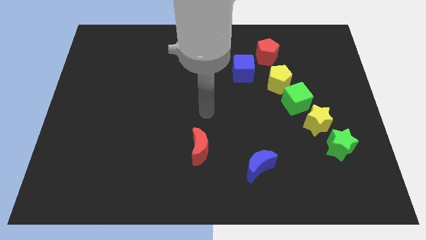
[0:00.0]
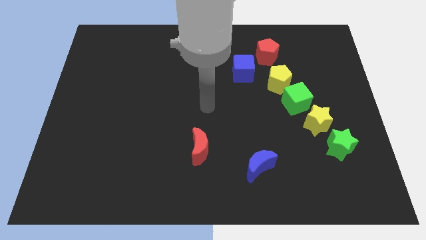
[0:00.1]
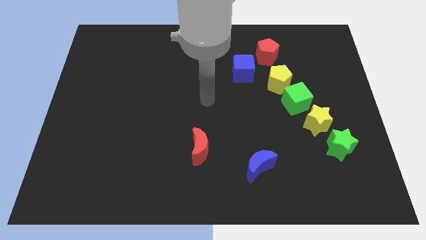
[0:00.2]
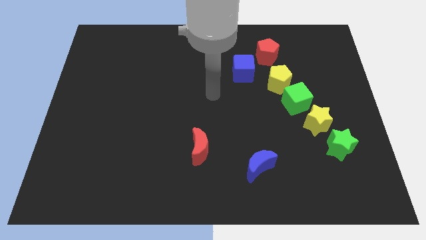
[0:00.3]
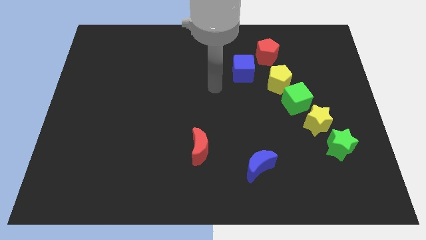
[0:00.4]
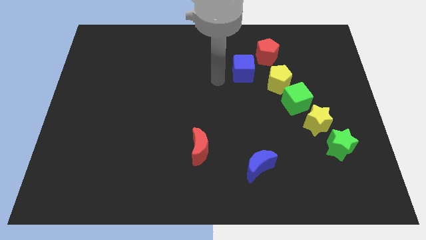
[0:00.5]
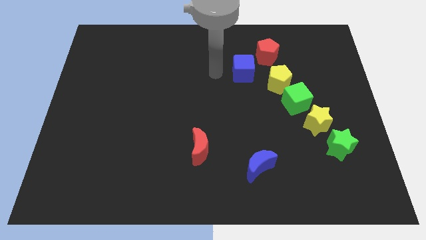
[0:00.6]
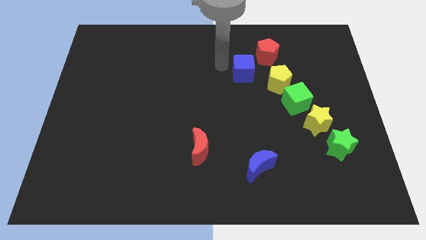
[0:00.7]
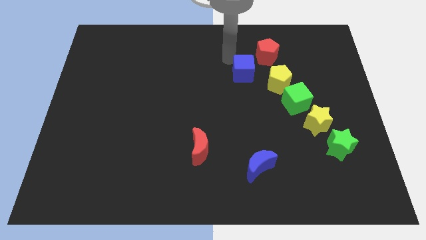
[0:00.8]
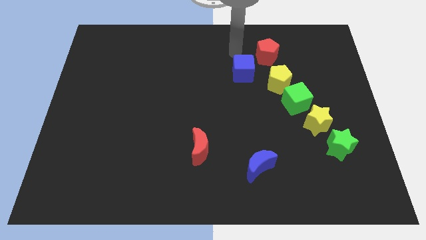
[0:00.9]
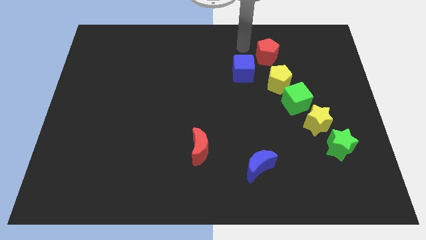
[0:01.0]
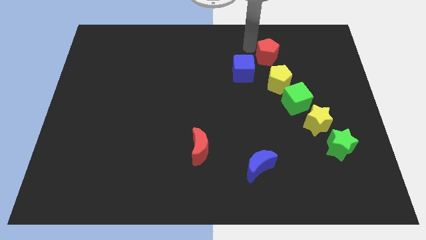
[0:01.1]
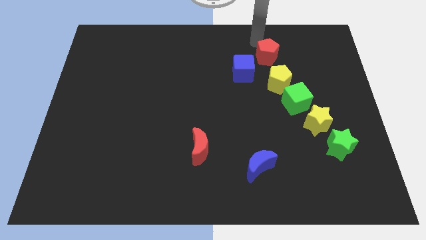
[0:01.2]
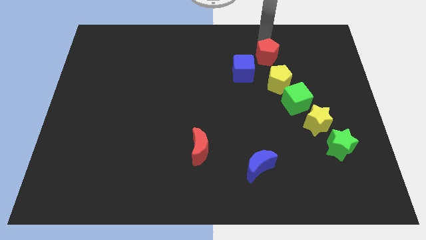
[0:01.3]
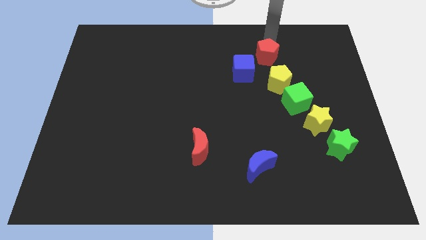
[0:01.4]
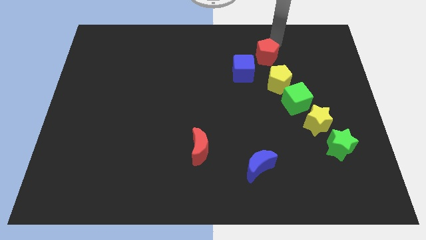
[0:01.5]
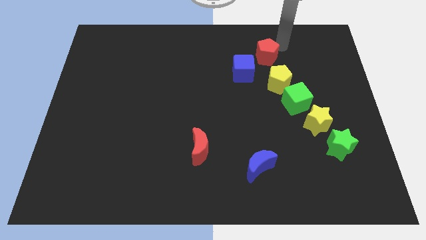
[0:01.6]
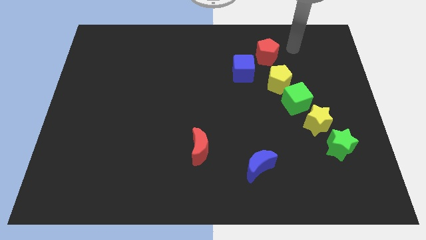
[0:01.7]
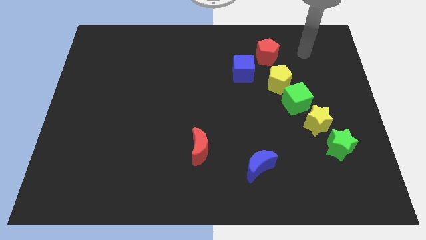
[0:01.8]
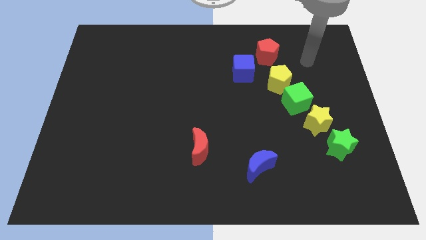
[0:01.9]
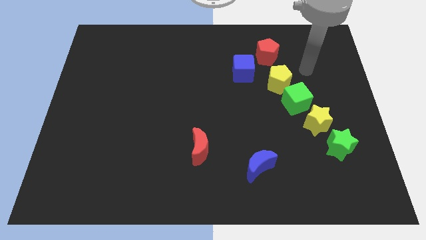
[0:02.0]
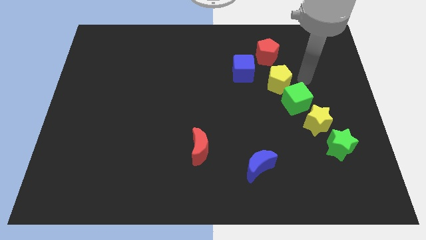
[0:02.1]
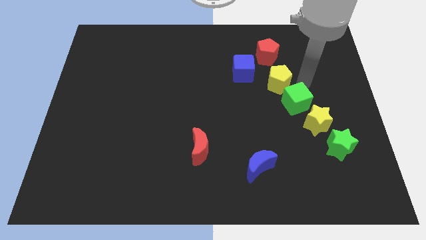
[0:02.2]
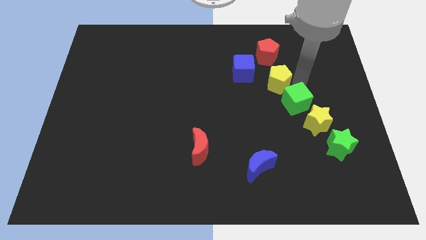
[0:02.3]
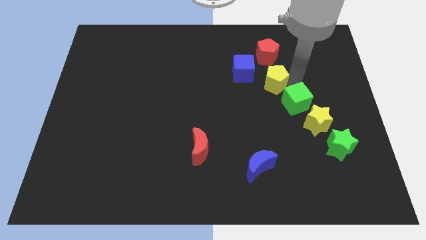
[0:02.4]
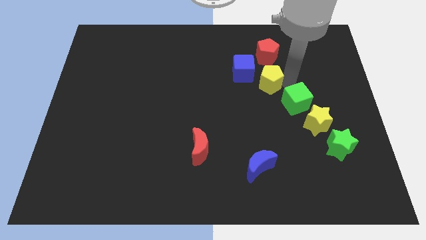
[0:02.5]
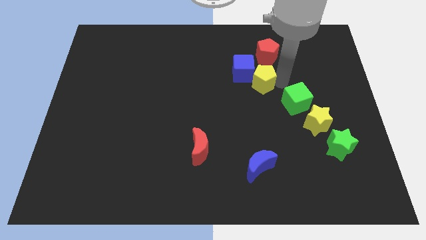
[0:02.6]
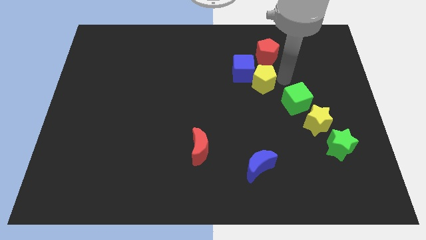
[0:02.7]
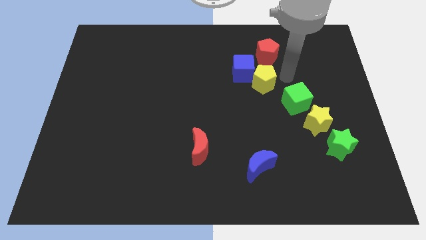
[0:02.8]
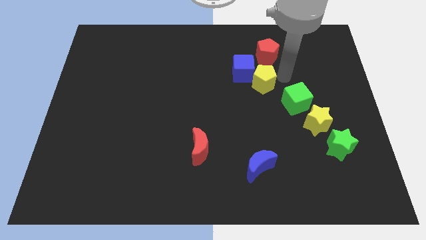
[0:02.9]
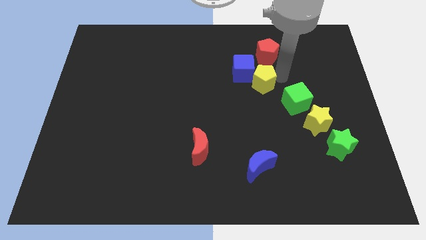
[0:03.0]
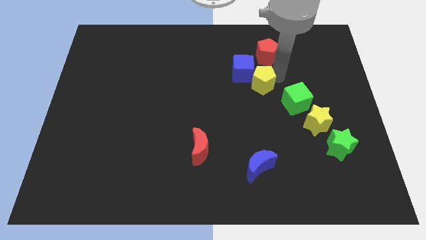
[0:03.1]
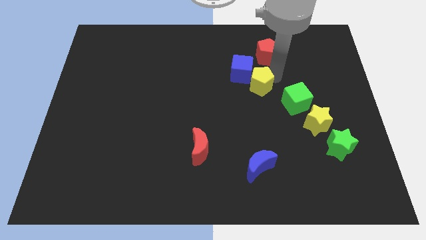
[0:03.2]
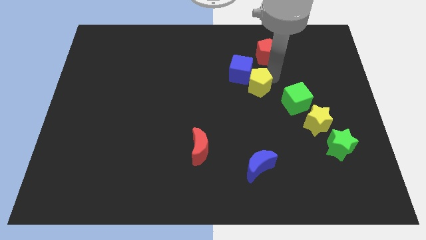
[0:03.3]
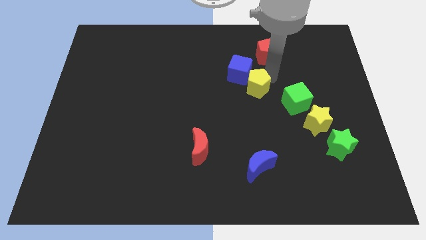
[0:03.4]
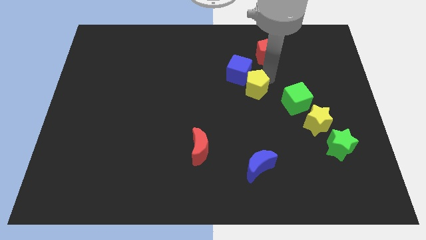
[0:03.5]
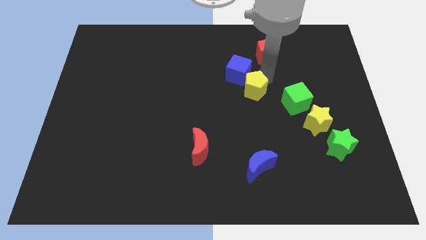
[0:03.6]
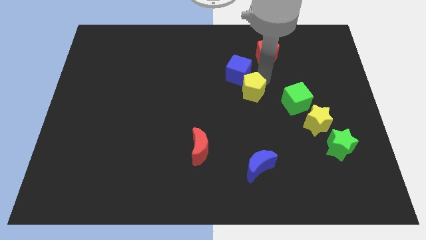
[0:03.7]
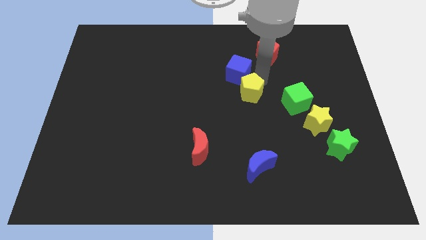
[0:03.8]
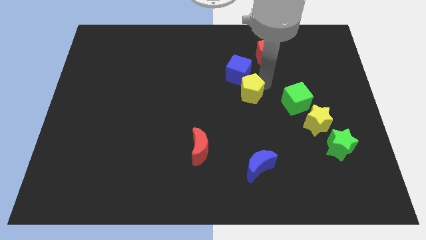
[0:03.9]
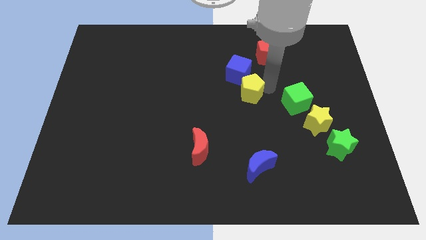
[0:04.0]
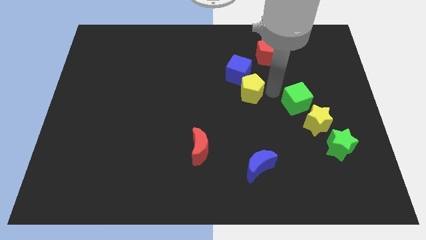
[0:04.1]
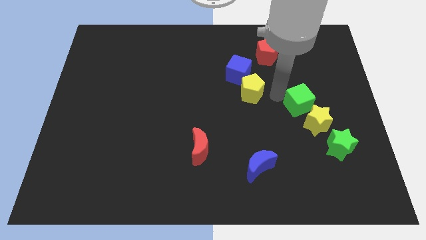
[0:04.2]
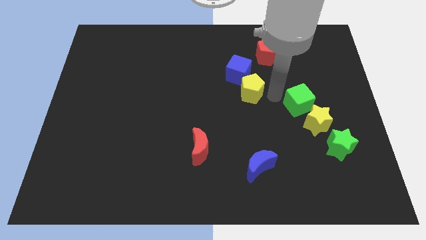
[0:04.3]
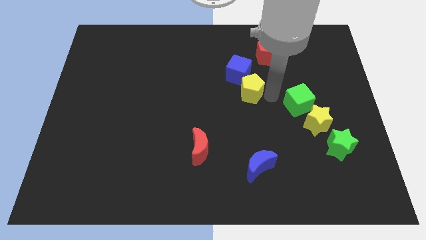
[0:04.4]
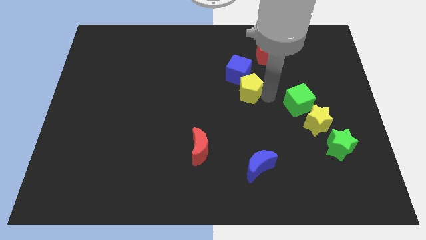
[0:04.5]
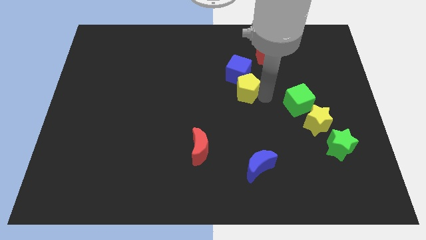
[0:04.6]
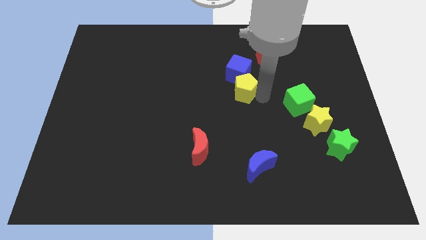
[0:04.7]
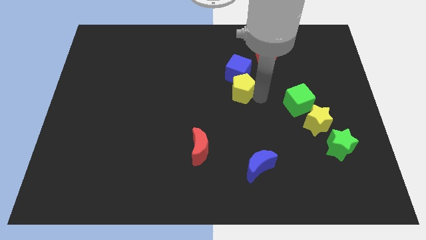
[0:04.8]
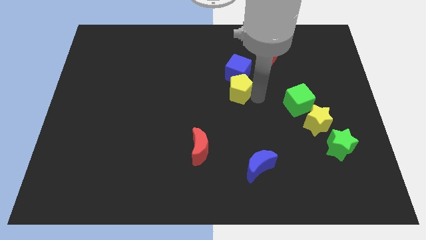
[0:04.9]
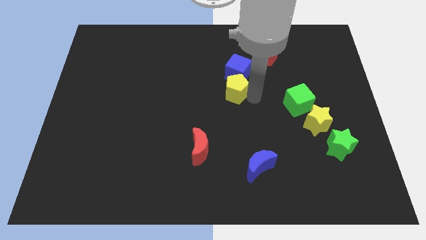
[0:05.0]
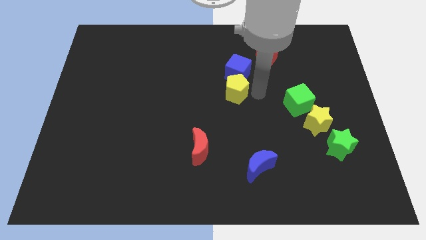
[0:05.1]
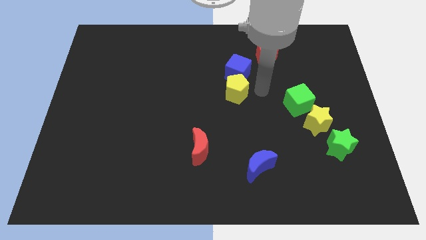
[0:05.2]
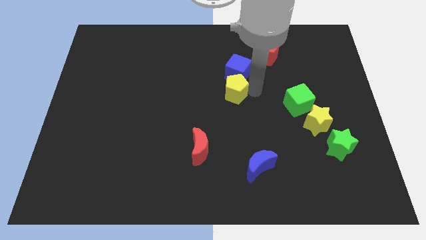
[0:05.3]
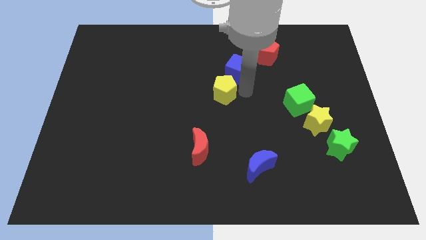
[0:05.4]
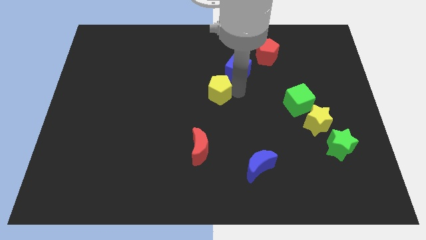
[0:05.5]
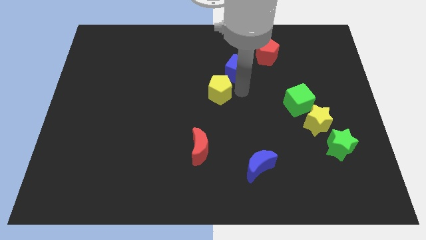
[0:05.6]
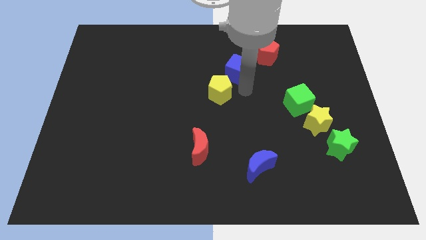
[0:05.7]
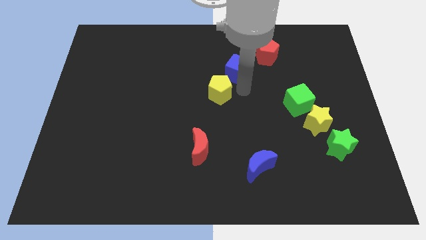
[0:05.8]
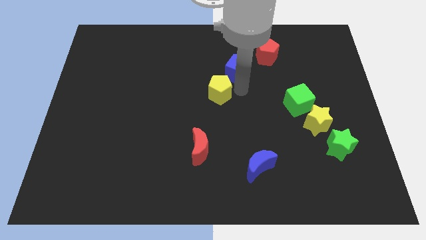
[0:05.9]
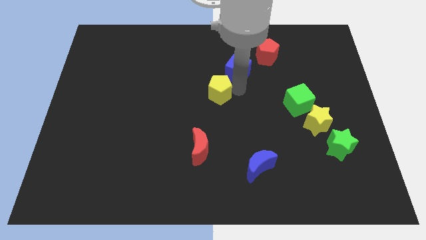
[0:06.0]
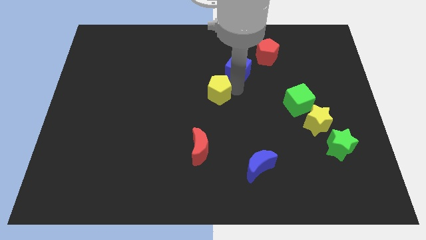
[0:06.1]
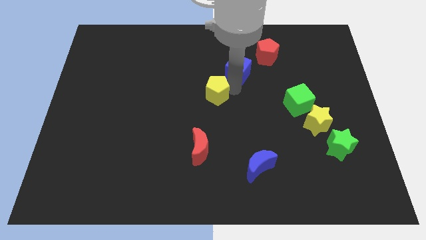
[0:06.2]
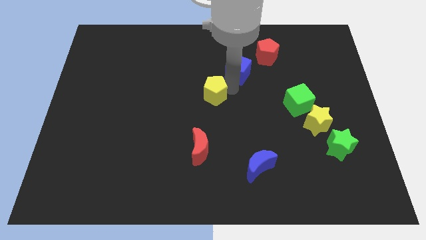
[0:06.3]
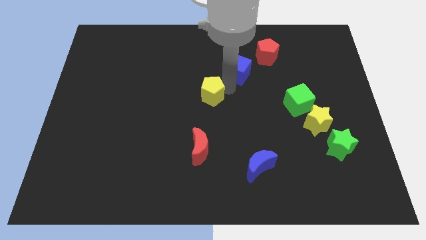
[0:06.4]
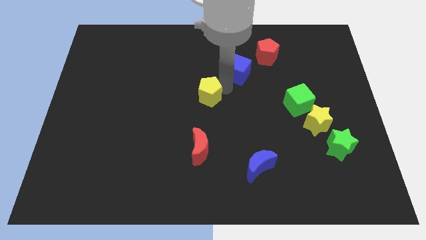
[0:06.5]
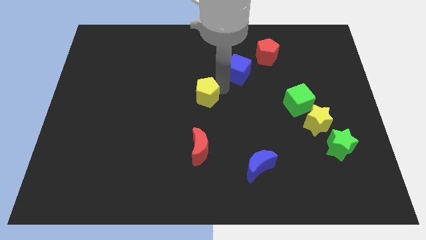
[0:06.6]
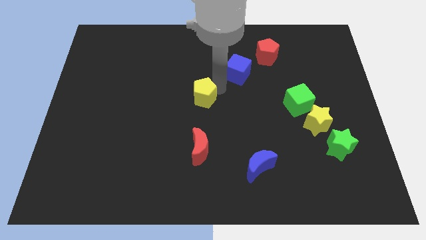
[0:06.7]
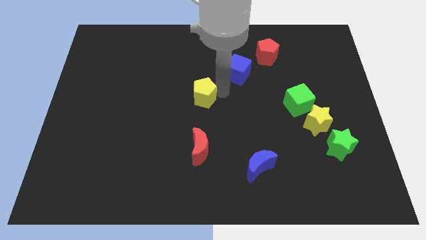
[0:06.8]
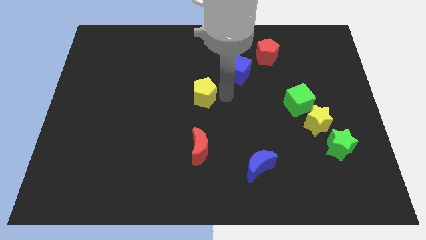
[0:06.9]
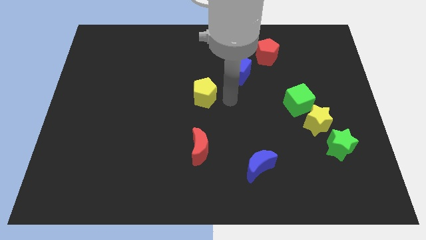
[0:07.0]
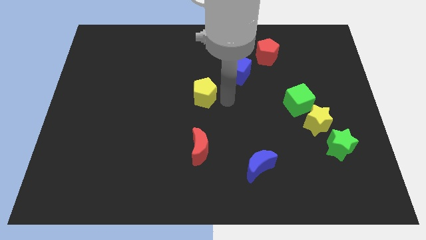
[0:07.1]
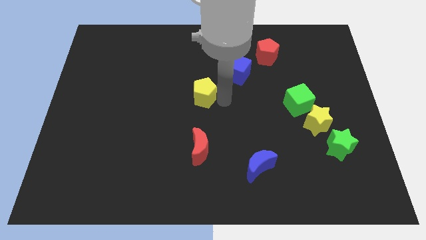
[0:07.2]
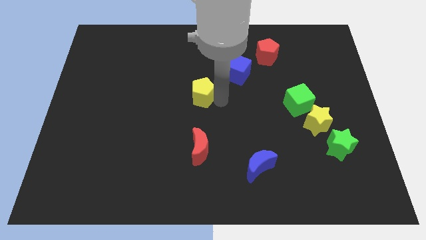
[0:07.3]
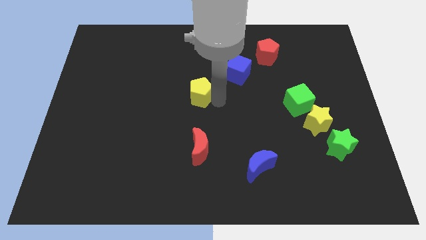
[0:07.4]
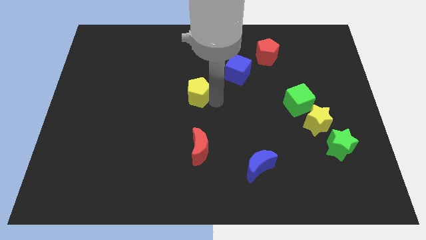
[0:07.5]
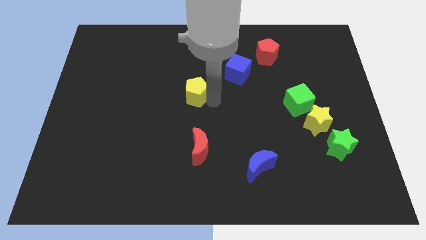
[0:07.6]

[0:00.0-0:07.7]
push the yellow pentagon to the left

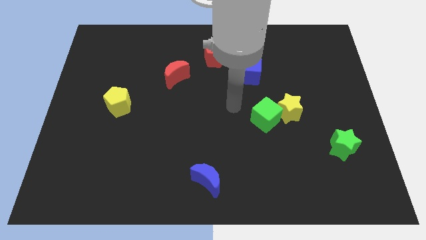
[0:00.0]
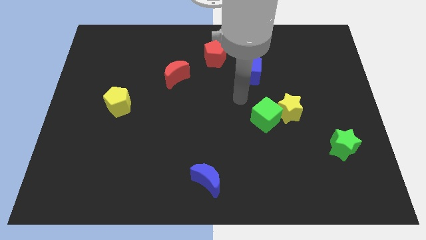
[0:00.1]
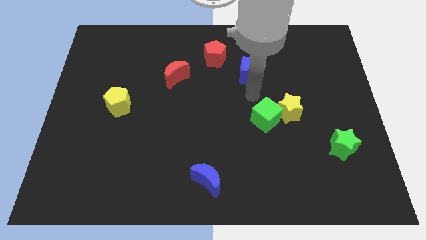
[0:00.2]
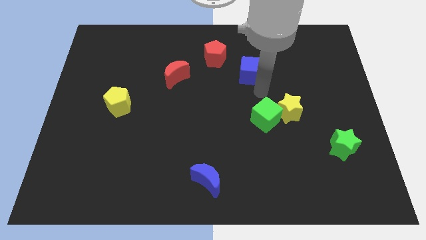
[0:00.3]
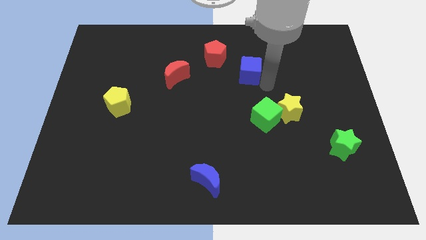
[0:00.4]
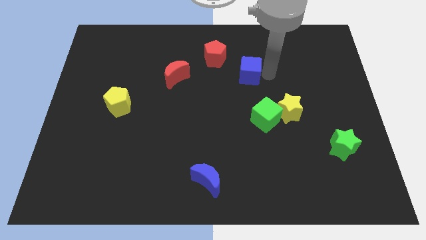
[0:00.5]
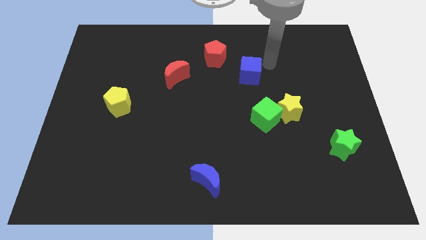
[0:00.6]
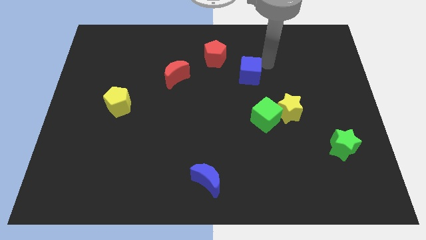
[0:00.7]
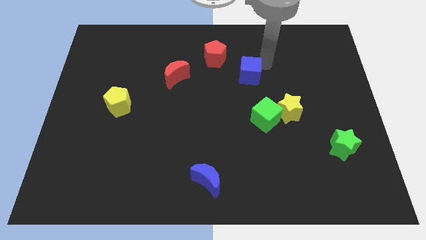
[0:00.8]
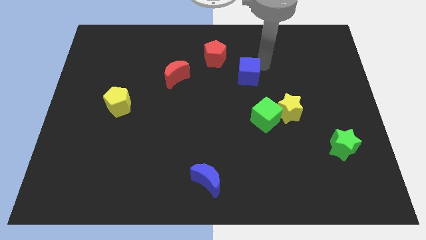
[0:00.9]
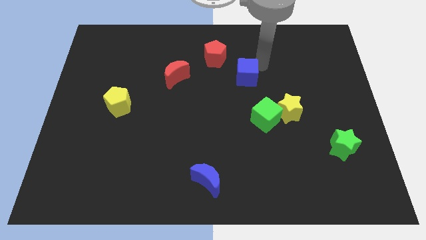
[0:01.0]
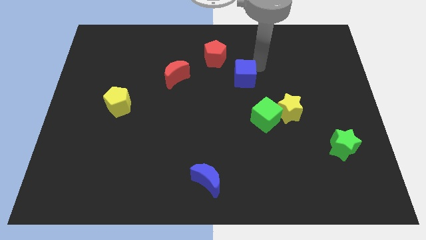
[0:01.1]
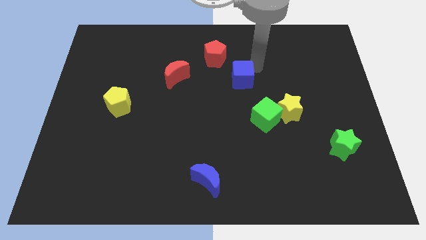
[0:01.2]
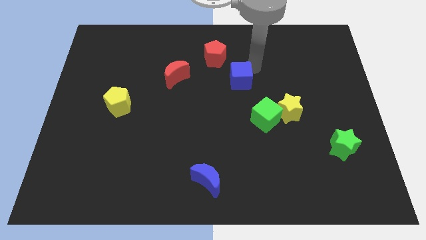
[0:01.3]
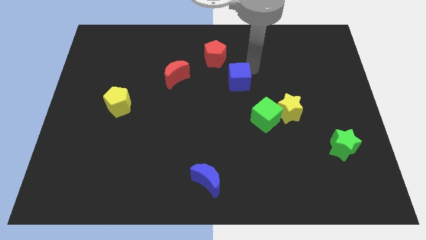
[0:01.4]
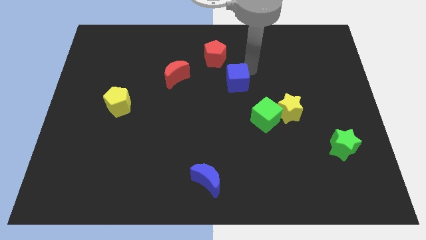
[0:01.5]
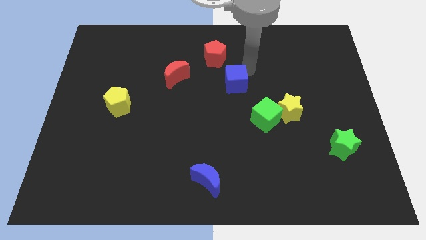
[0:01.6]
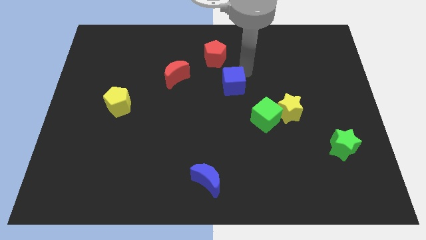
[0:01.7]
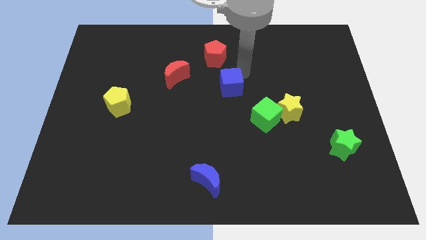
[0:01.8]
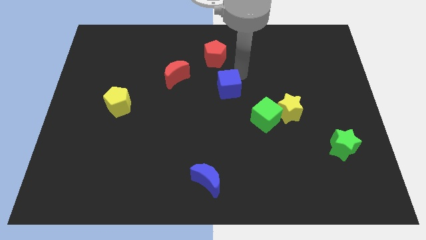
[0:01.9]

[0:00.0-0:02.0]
push the blue cube somewhat down and to the left
